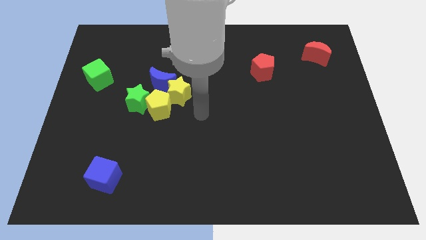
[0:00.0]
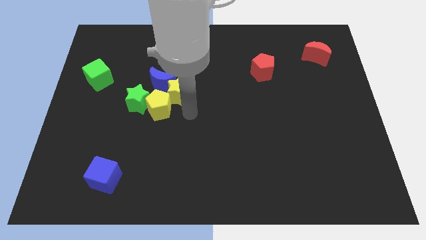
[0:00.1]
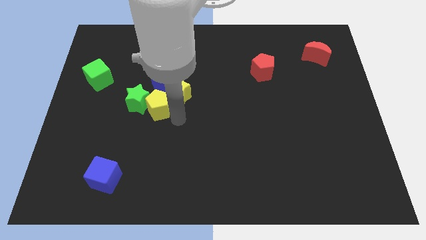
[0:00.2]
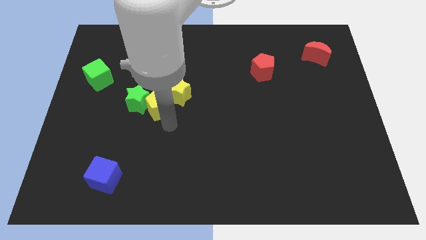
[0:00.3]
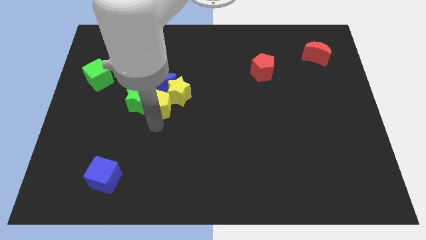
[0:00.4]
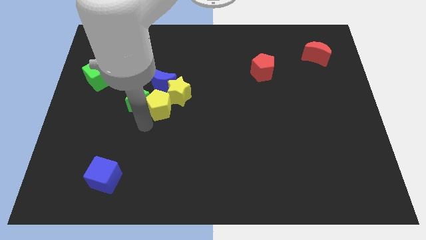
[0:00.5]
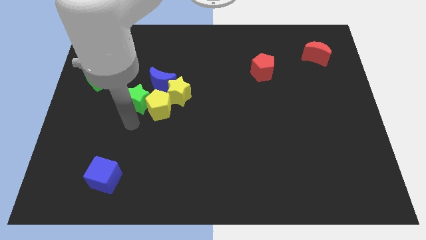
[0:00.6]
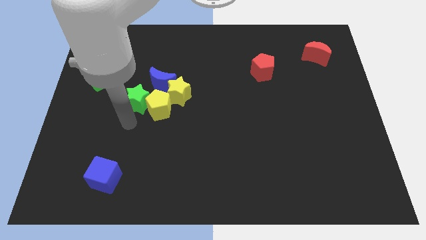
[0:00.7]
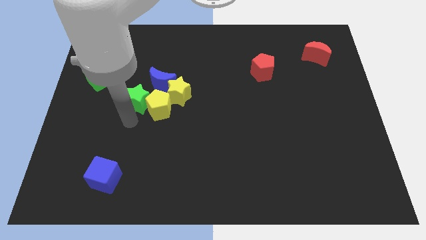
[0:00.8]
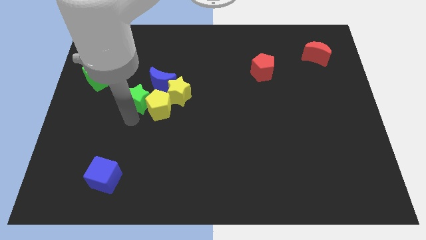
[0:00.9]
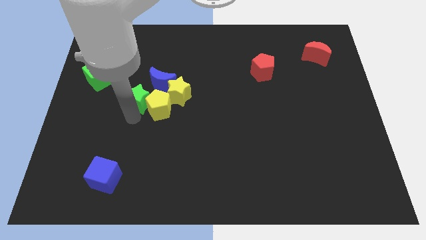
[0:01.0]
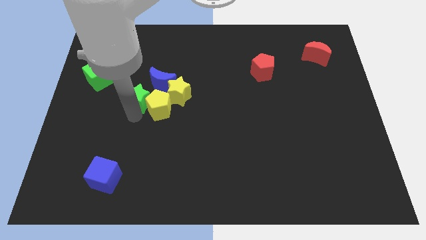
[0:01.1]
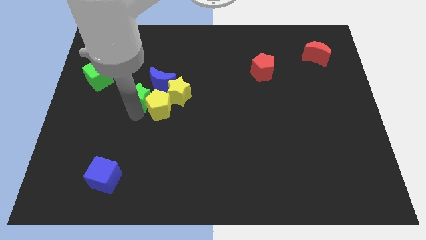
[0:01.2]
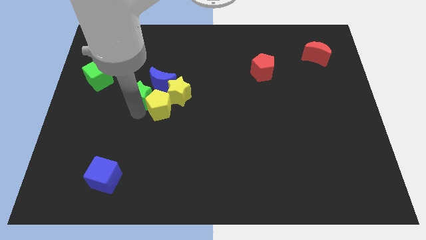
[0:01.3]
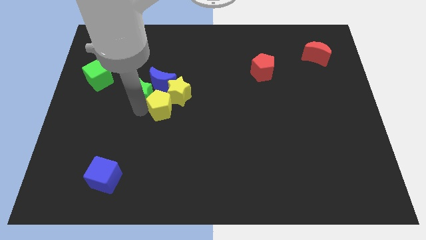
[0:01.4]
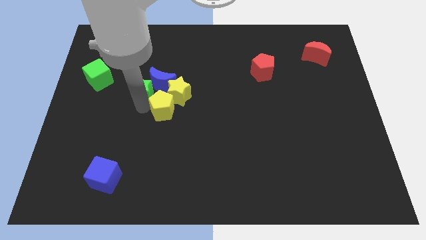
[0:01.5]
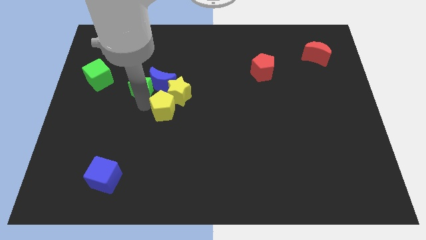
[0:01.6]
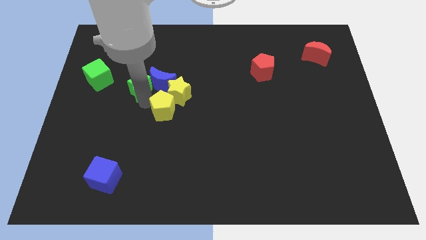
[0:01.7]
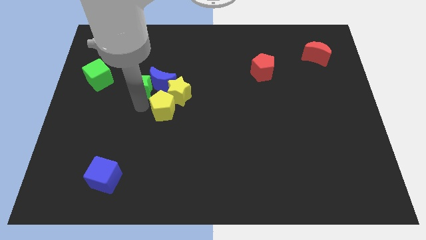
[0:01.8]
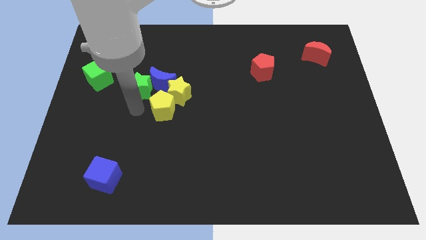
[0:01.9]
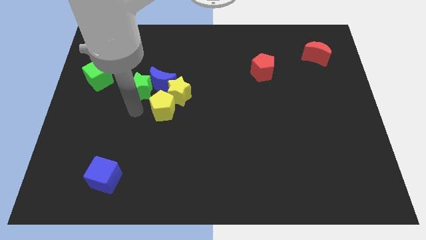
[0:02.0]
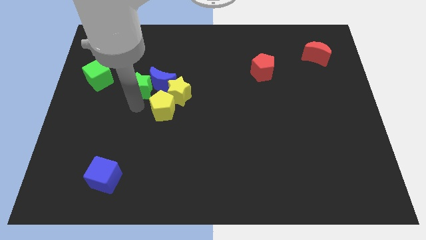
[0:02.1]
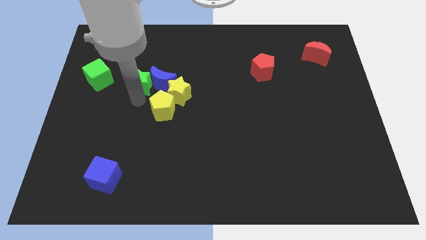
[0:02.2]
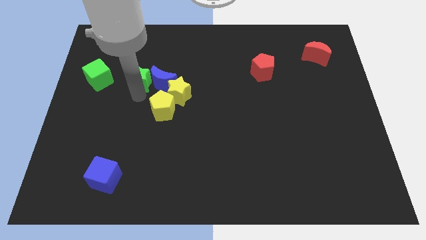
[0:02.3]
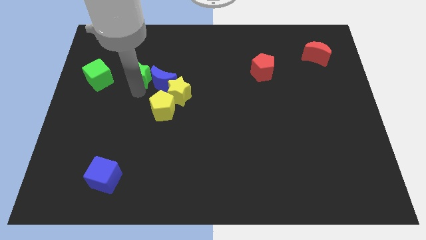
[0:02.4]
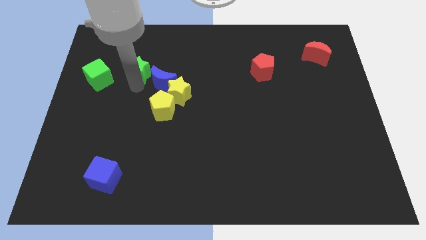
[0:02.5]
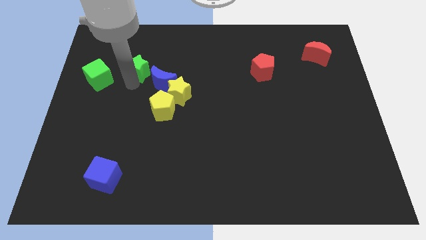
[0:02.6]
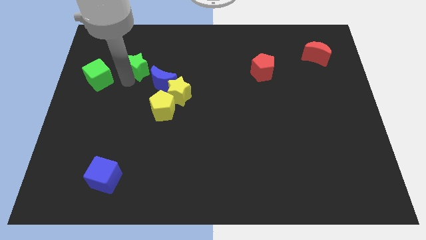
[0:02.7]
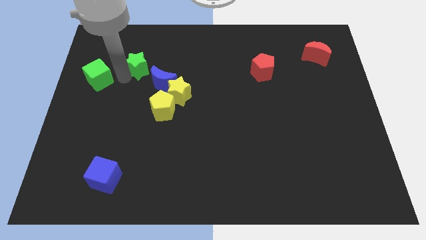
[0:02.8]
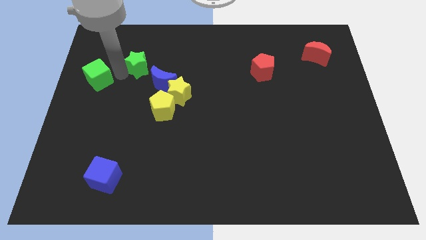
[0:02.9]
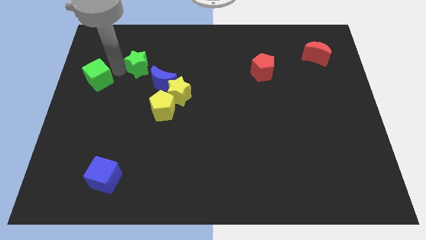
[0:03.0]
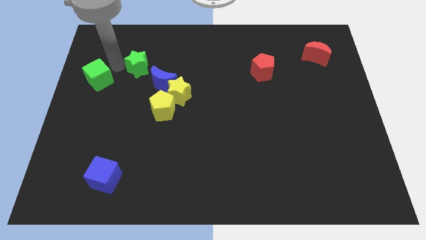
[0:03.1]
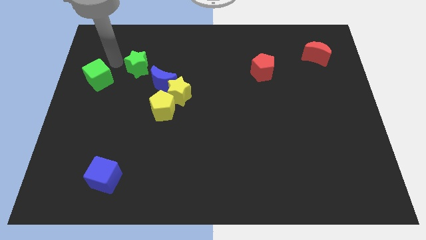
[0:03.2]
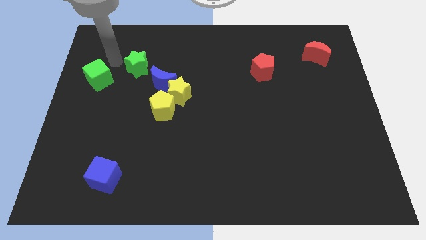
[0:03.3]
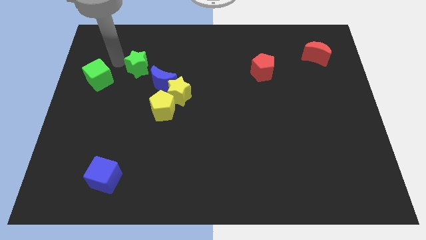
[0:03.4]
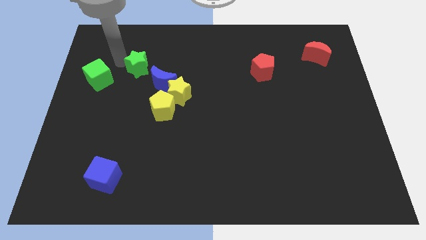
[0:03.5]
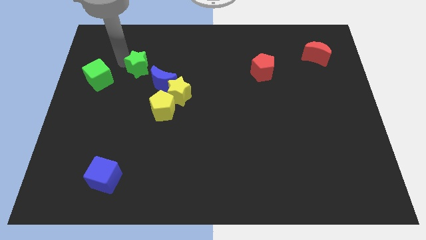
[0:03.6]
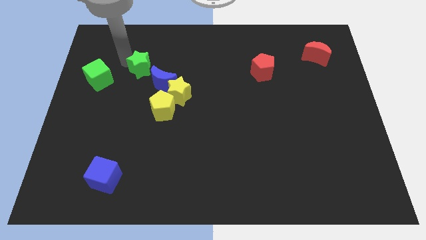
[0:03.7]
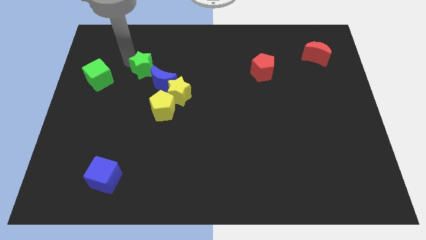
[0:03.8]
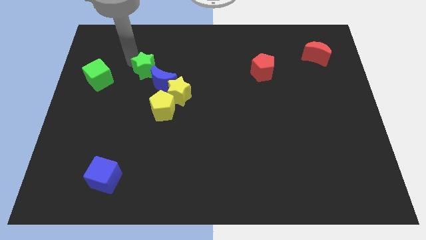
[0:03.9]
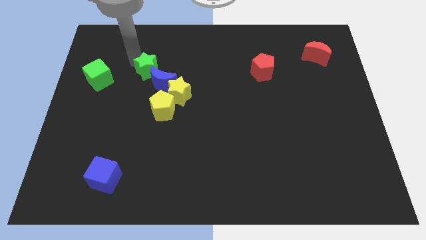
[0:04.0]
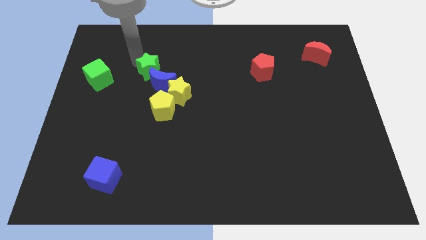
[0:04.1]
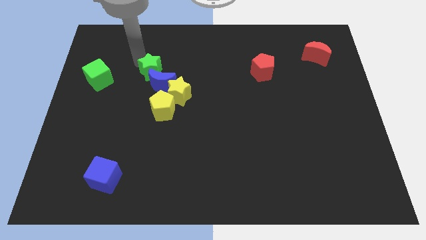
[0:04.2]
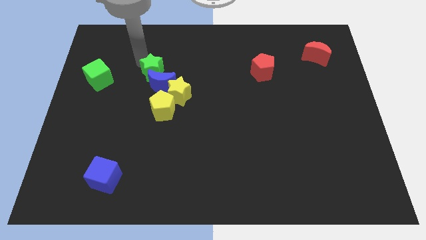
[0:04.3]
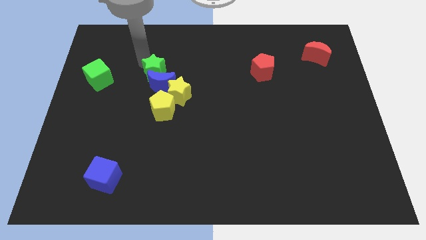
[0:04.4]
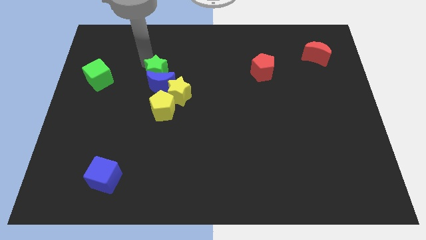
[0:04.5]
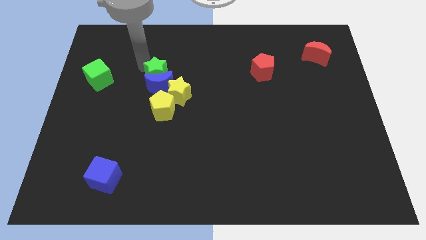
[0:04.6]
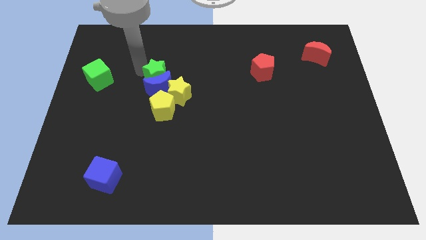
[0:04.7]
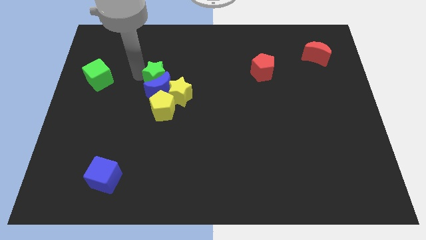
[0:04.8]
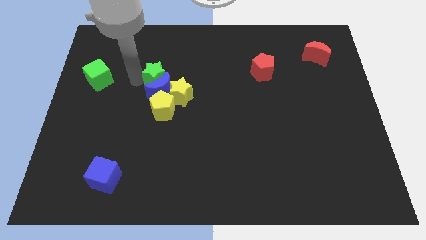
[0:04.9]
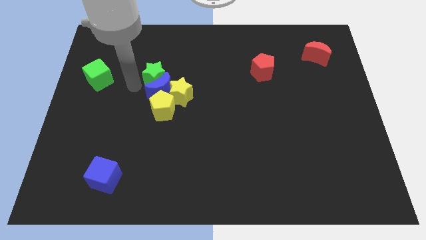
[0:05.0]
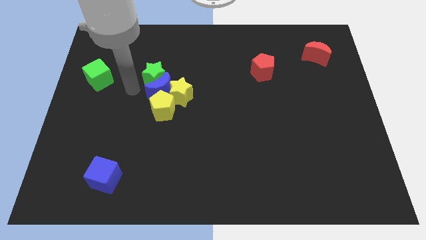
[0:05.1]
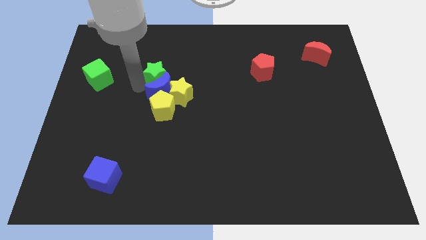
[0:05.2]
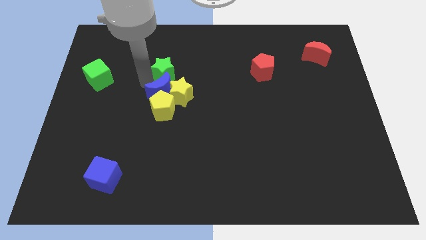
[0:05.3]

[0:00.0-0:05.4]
move the green star to the top side of the yellow star
